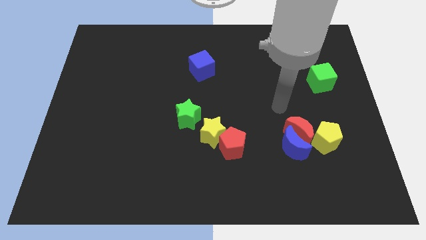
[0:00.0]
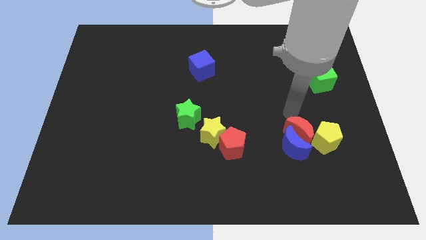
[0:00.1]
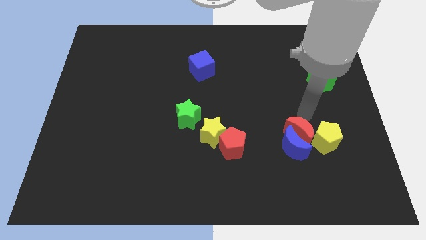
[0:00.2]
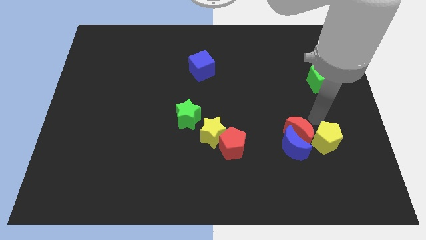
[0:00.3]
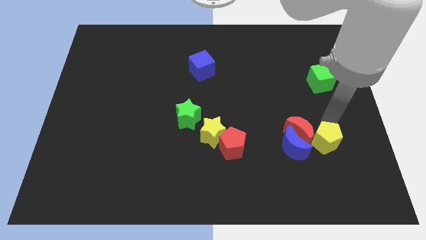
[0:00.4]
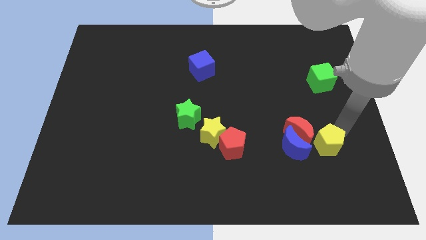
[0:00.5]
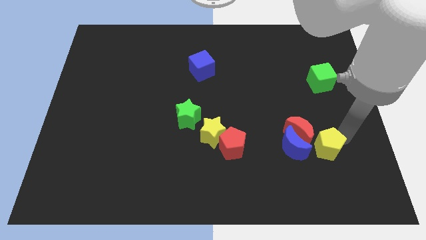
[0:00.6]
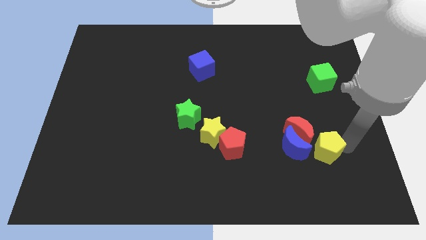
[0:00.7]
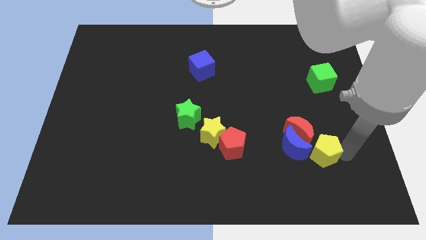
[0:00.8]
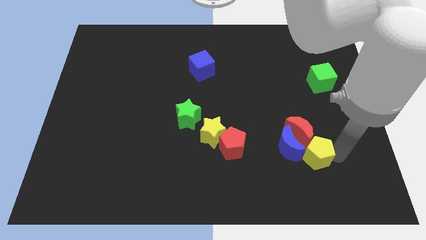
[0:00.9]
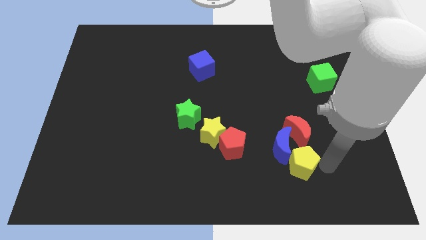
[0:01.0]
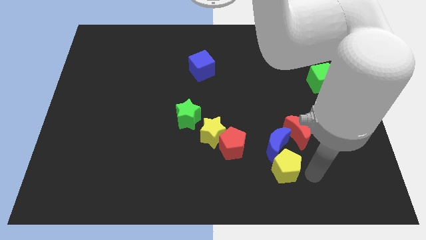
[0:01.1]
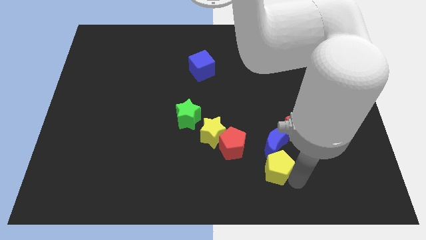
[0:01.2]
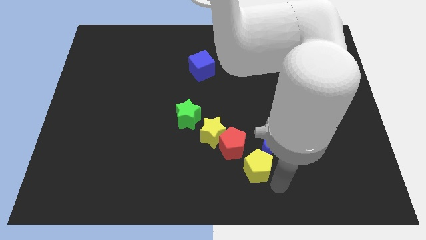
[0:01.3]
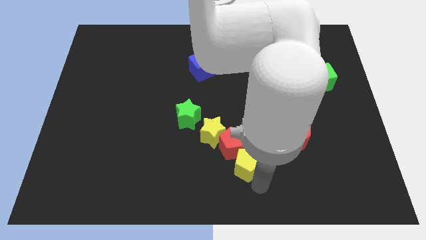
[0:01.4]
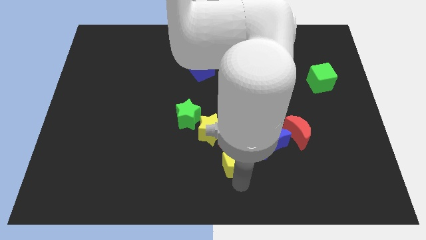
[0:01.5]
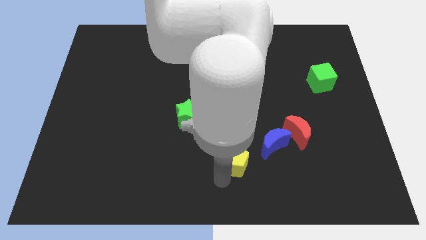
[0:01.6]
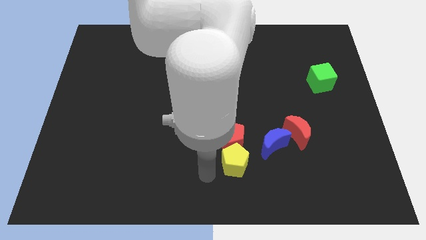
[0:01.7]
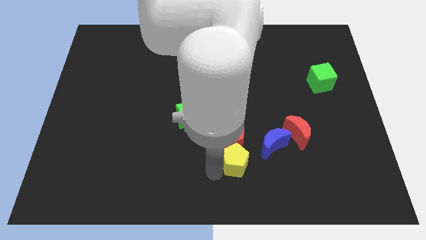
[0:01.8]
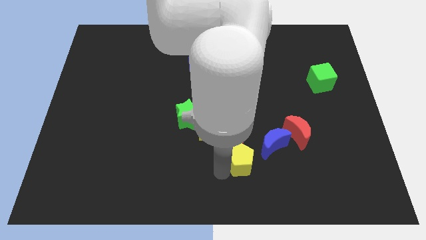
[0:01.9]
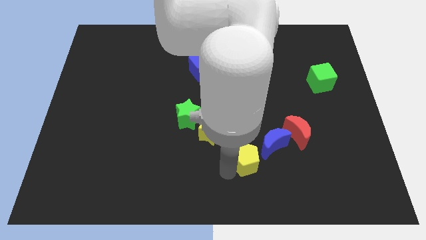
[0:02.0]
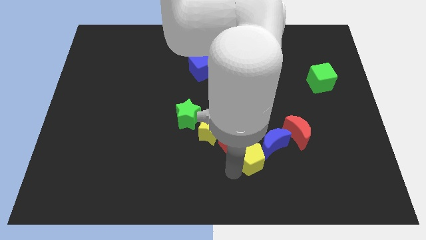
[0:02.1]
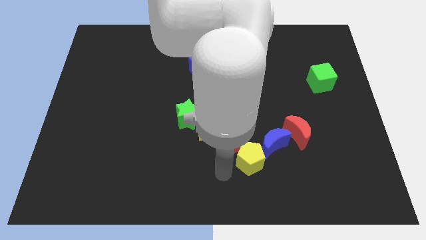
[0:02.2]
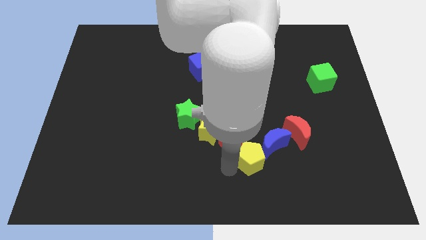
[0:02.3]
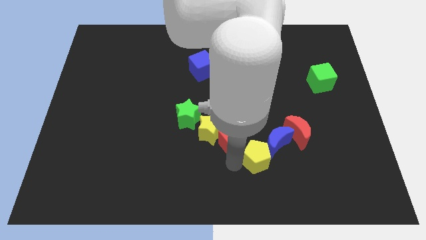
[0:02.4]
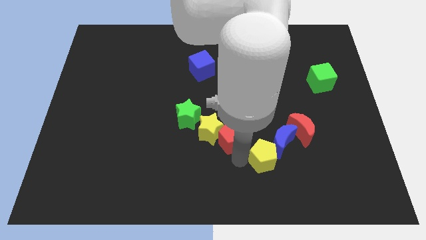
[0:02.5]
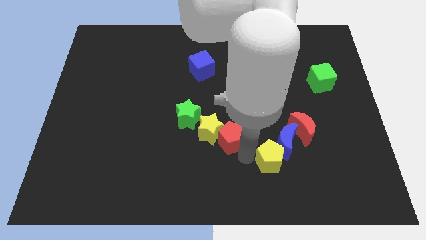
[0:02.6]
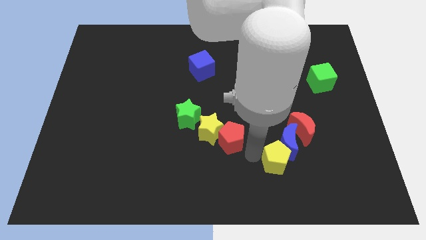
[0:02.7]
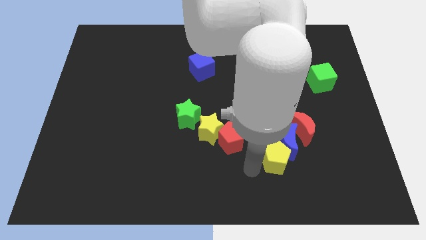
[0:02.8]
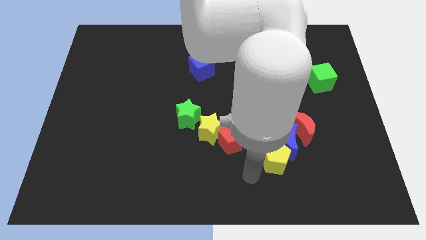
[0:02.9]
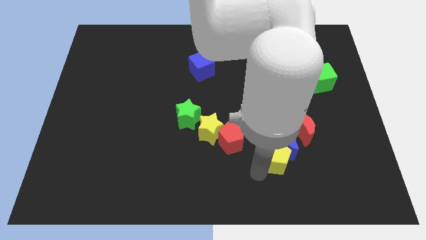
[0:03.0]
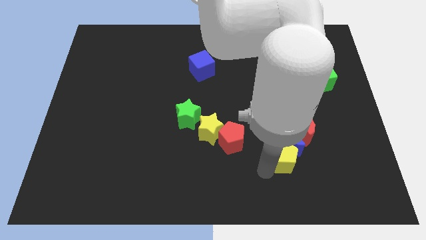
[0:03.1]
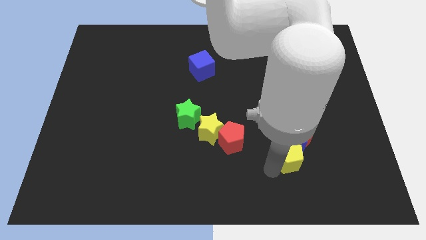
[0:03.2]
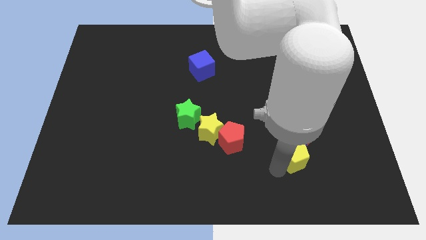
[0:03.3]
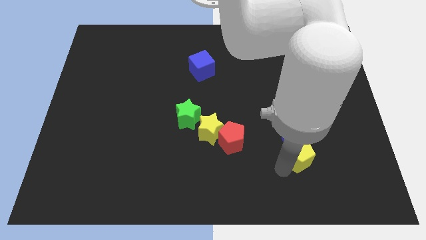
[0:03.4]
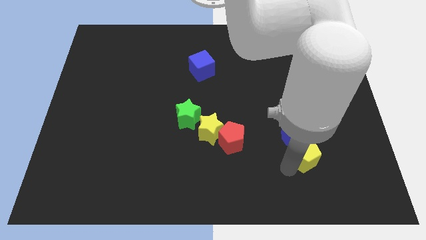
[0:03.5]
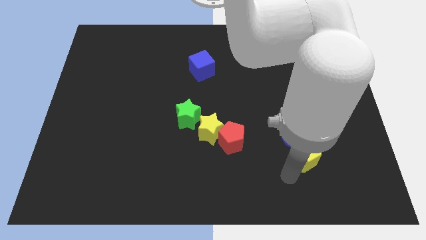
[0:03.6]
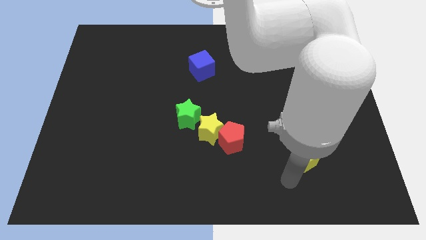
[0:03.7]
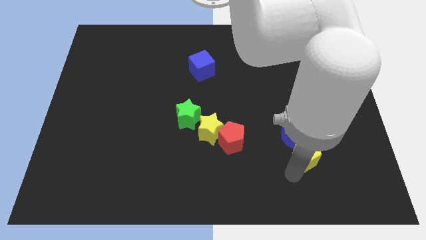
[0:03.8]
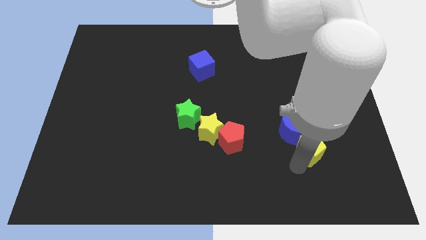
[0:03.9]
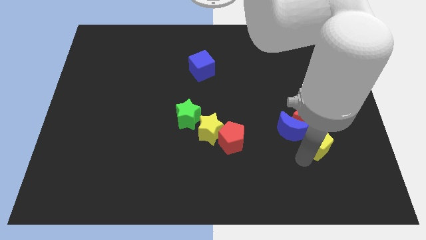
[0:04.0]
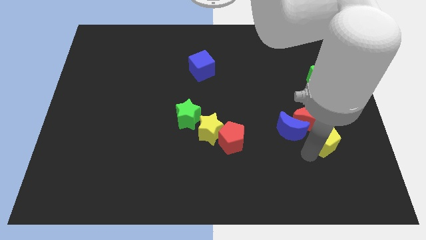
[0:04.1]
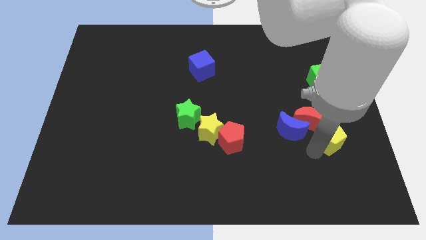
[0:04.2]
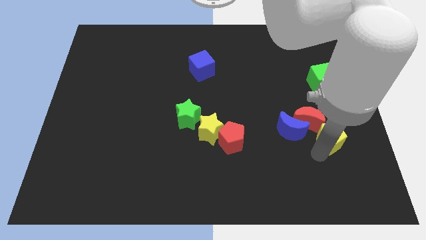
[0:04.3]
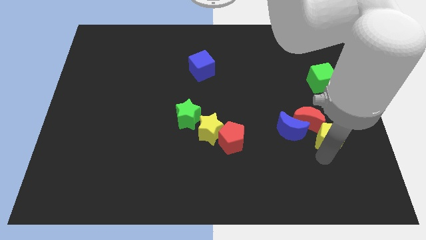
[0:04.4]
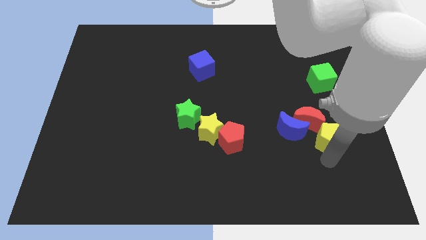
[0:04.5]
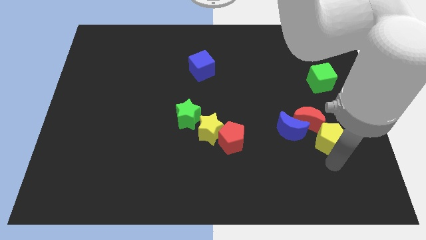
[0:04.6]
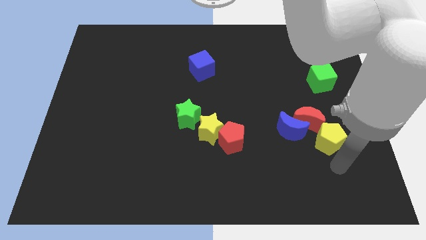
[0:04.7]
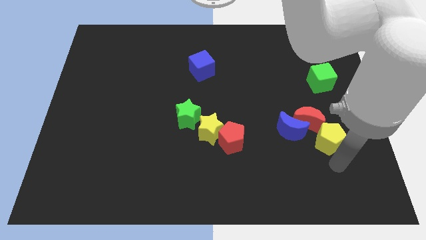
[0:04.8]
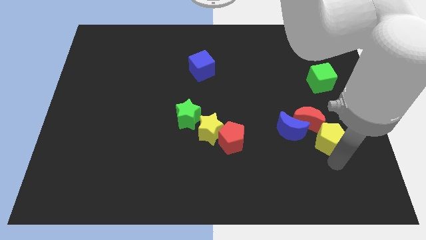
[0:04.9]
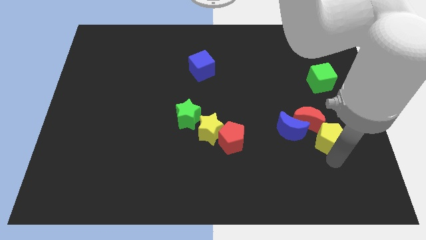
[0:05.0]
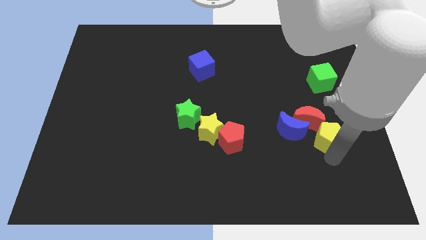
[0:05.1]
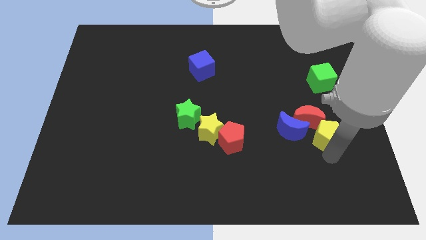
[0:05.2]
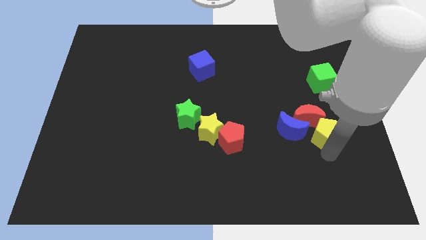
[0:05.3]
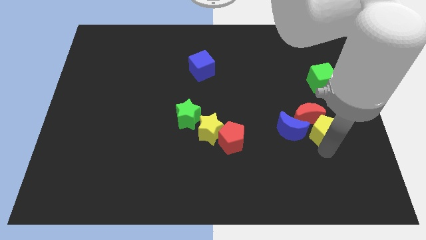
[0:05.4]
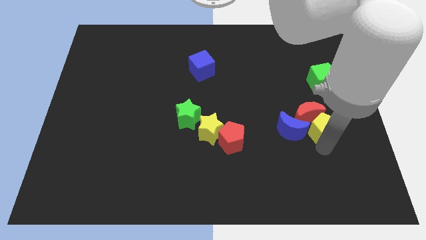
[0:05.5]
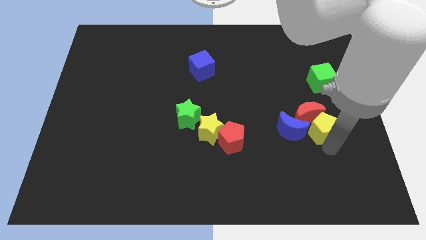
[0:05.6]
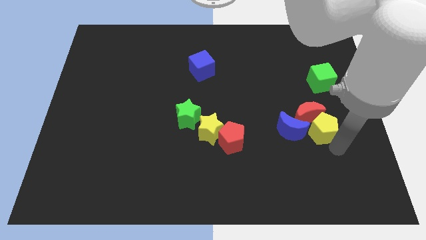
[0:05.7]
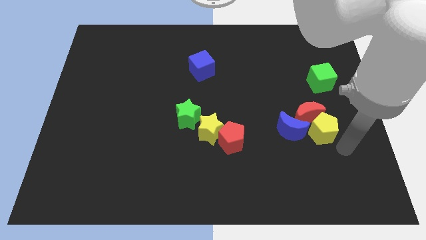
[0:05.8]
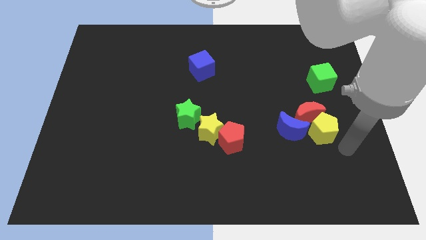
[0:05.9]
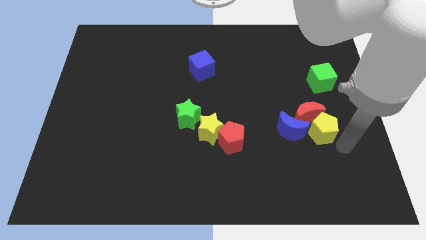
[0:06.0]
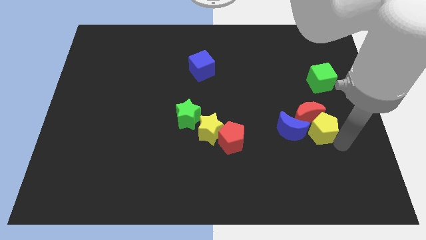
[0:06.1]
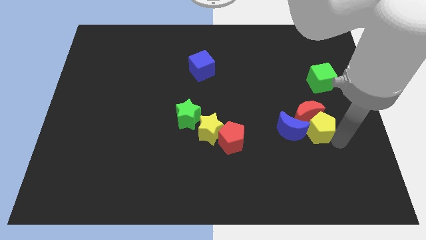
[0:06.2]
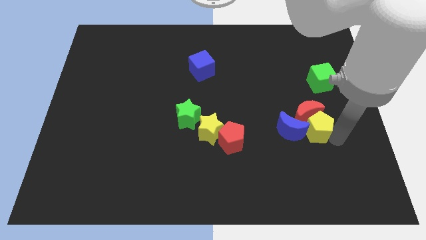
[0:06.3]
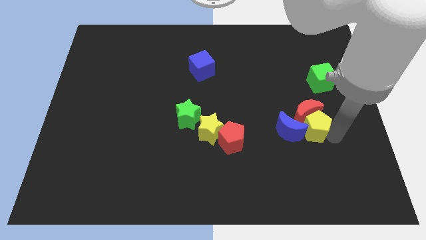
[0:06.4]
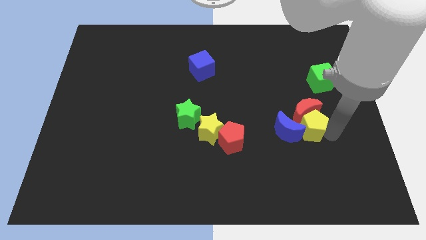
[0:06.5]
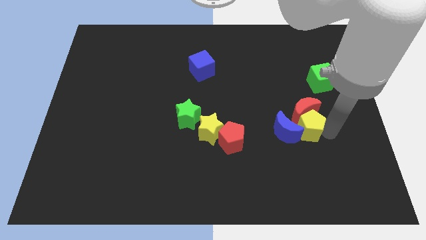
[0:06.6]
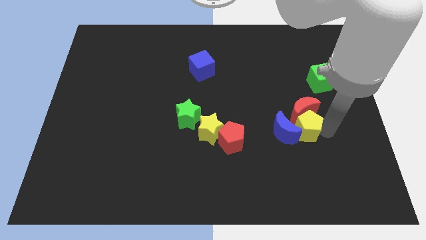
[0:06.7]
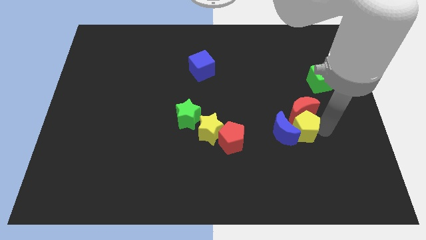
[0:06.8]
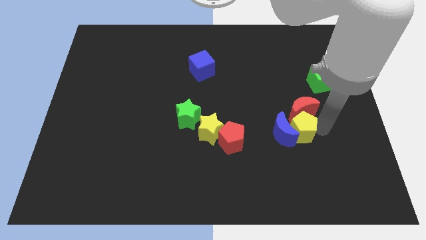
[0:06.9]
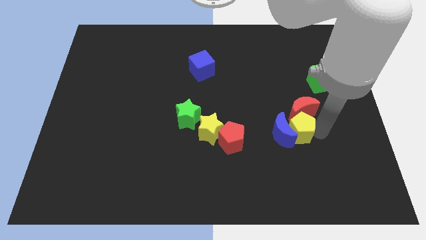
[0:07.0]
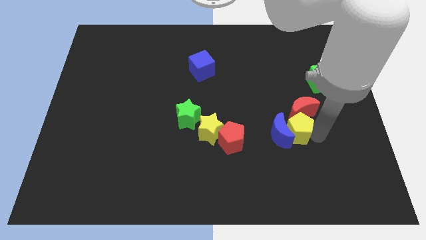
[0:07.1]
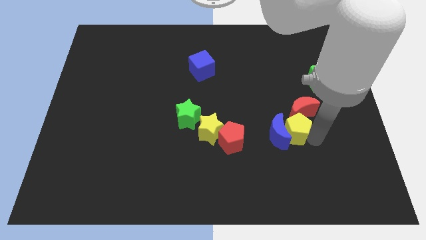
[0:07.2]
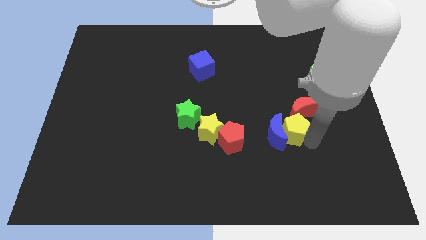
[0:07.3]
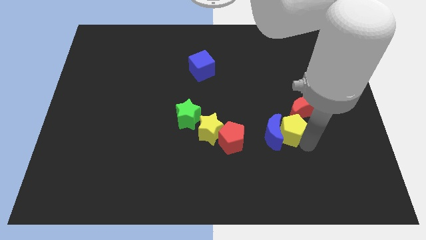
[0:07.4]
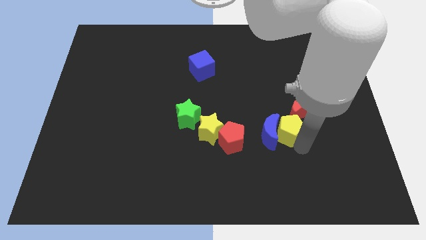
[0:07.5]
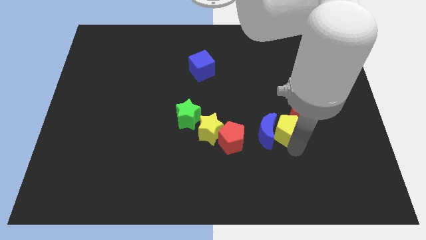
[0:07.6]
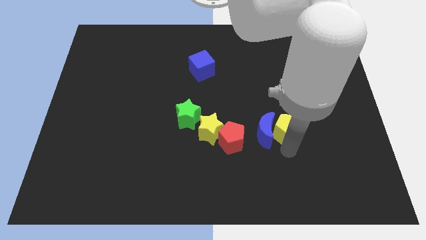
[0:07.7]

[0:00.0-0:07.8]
slide the yellow pentagon right of the yellow star
